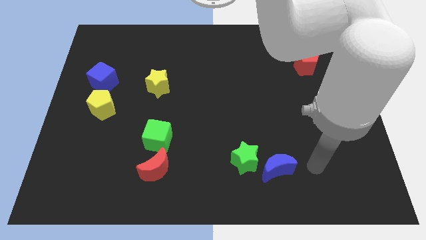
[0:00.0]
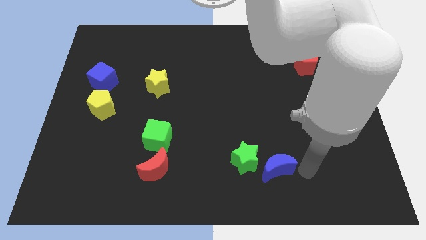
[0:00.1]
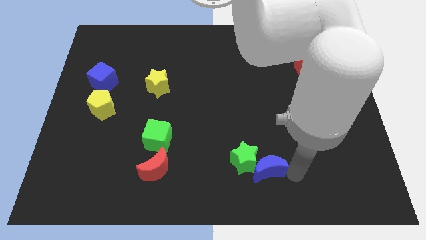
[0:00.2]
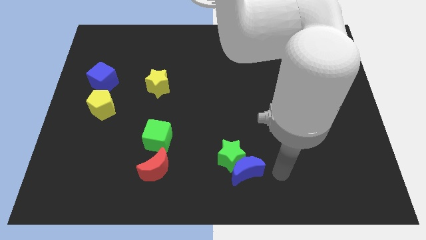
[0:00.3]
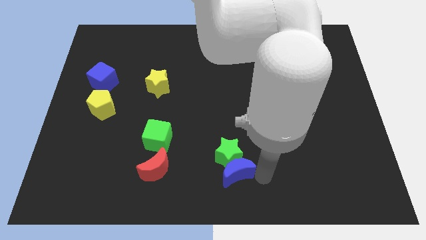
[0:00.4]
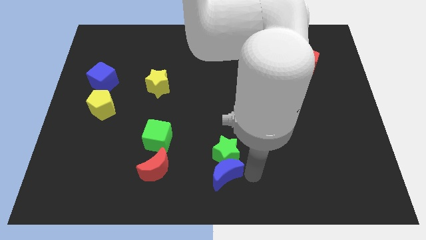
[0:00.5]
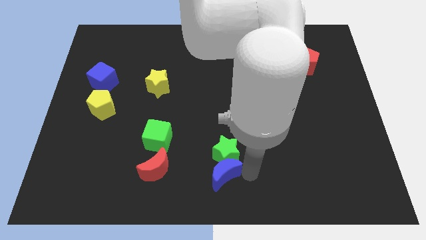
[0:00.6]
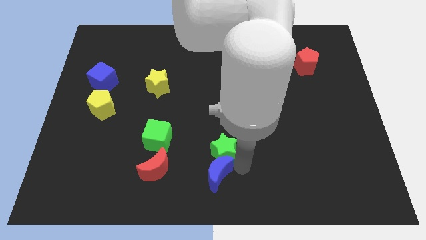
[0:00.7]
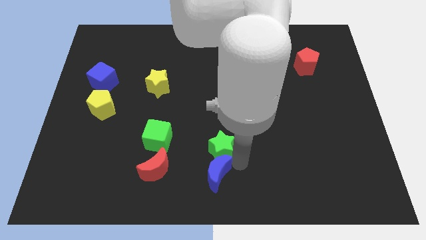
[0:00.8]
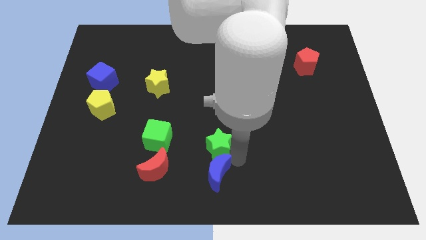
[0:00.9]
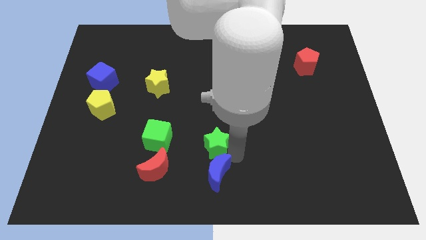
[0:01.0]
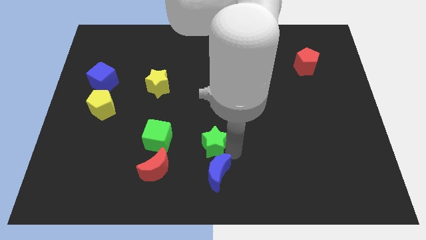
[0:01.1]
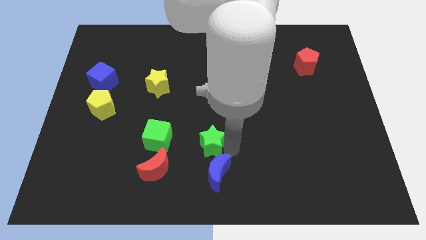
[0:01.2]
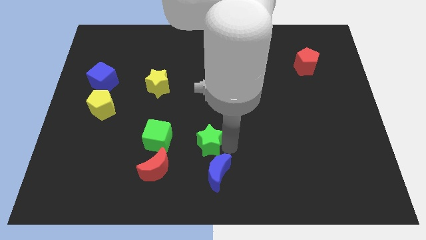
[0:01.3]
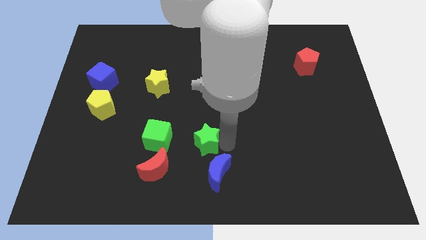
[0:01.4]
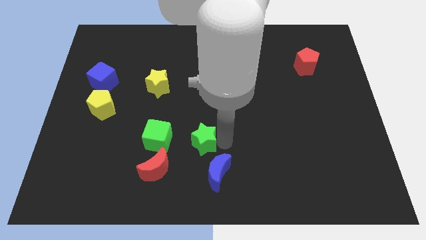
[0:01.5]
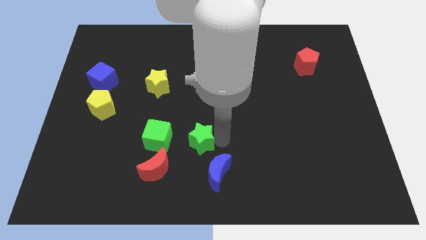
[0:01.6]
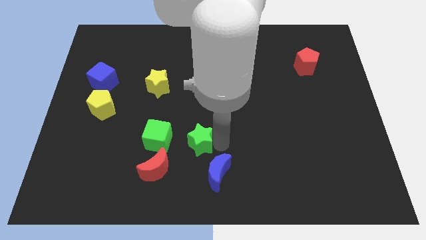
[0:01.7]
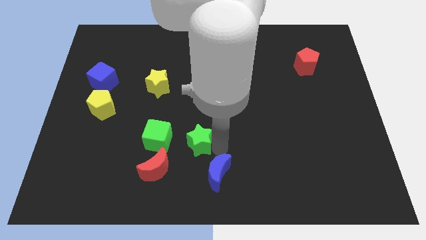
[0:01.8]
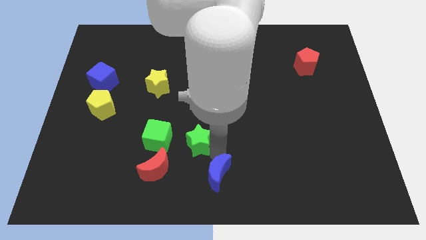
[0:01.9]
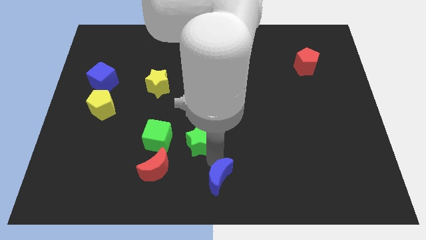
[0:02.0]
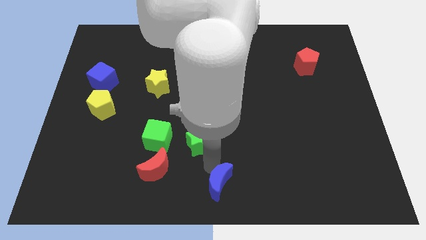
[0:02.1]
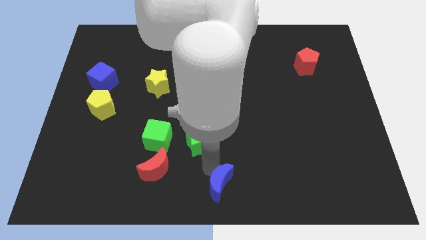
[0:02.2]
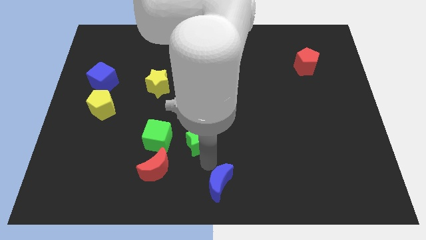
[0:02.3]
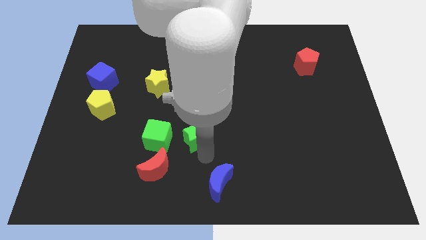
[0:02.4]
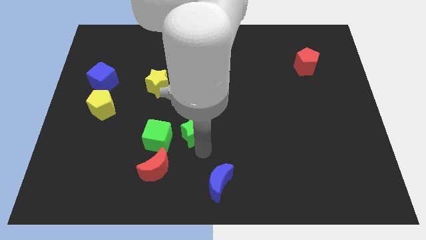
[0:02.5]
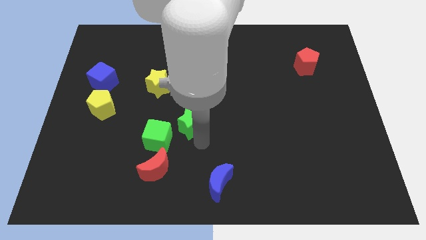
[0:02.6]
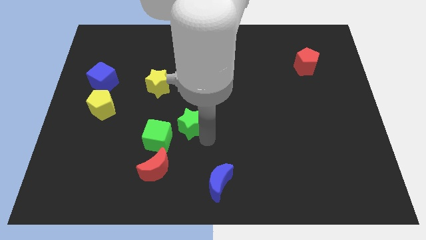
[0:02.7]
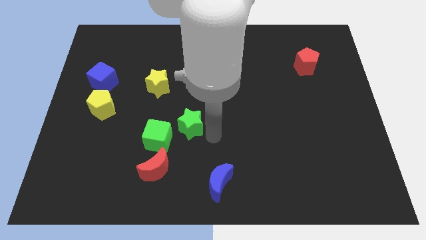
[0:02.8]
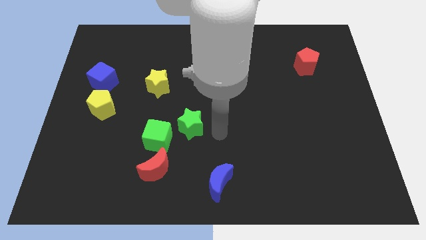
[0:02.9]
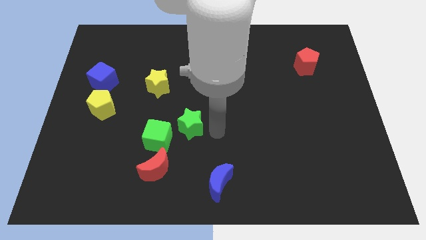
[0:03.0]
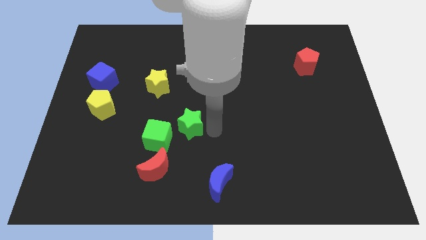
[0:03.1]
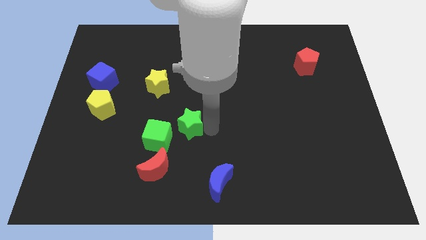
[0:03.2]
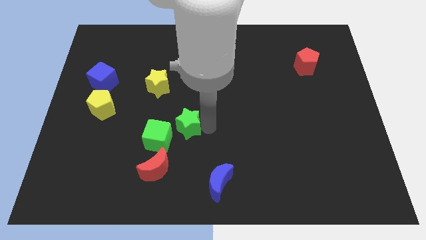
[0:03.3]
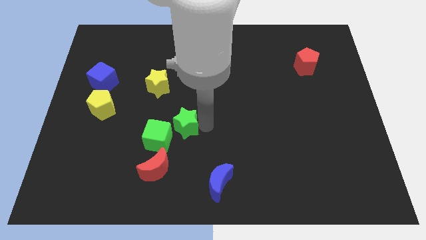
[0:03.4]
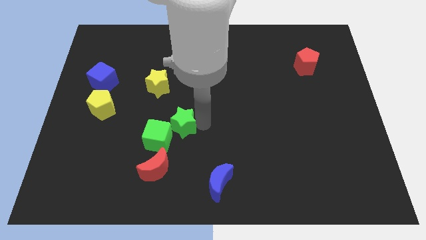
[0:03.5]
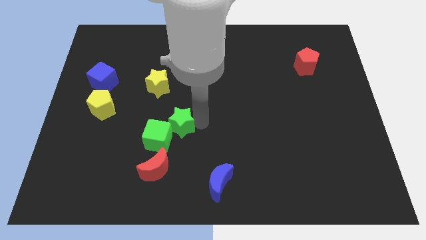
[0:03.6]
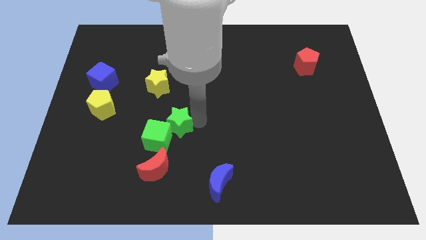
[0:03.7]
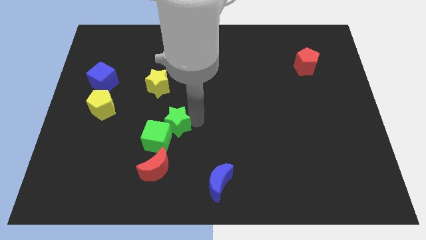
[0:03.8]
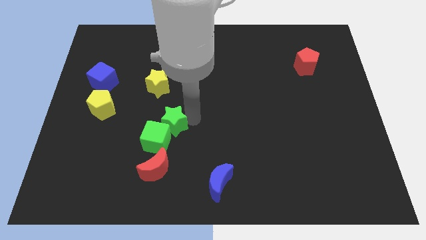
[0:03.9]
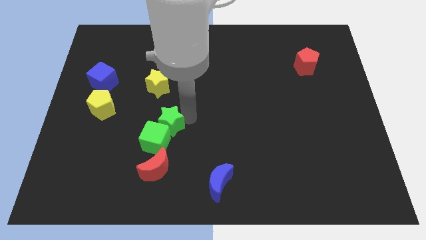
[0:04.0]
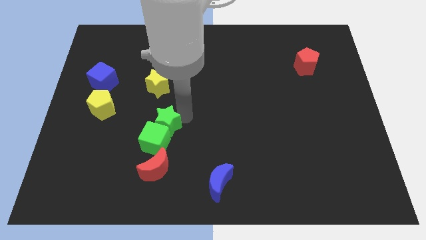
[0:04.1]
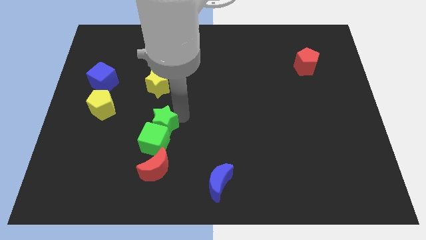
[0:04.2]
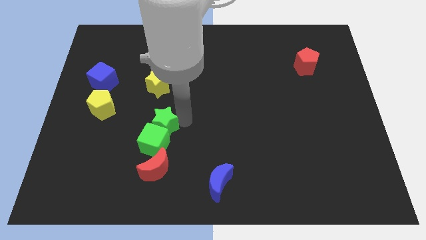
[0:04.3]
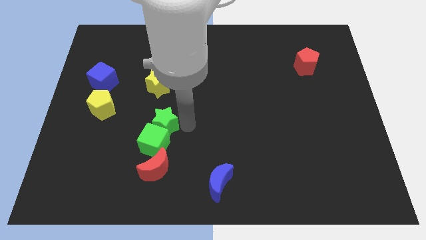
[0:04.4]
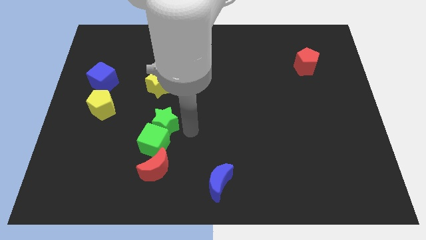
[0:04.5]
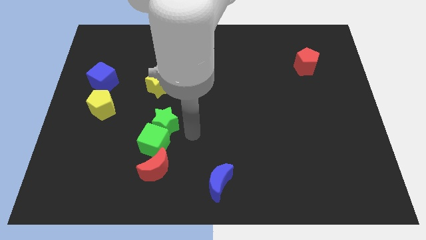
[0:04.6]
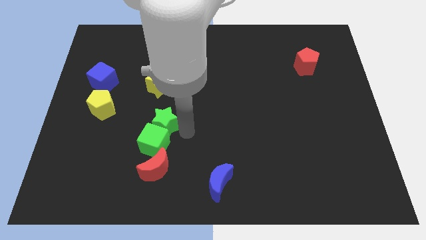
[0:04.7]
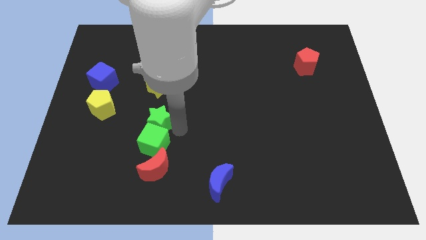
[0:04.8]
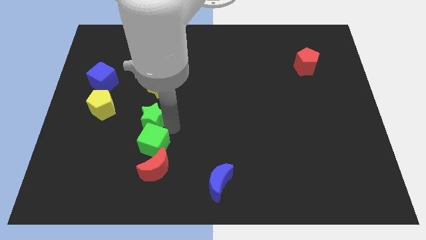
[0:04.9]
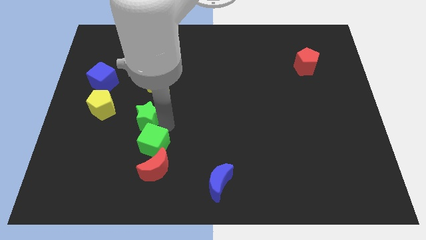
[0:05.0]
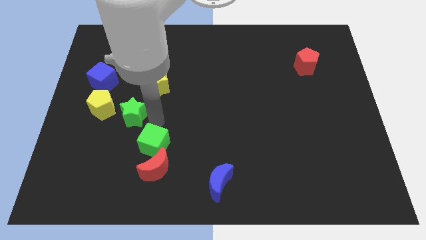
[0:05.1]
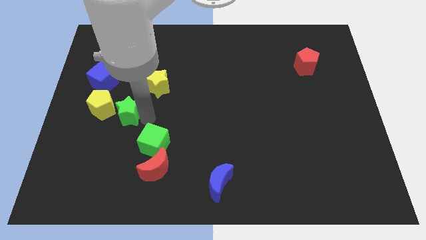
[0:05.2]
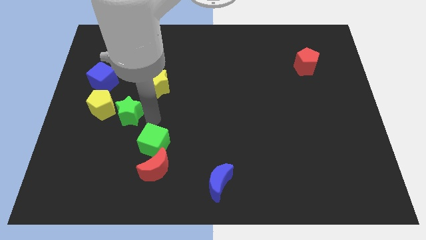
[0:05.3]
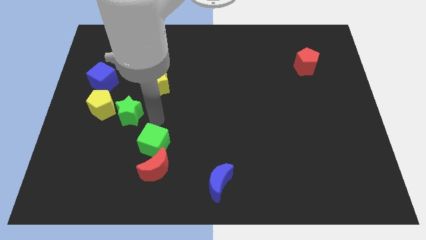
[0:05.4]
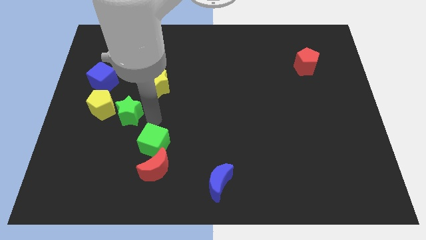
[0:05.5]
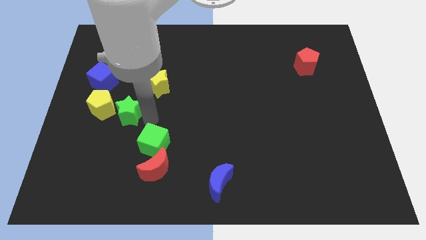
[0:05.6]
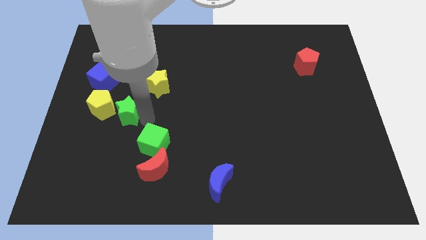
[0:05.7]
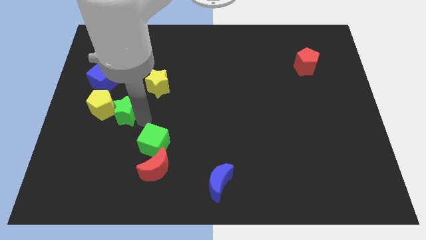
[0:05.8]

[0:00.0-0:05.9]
put the green star close to the yellow pentagon

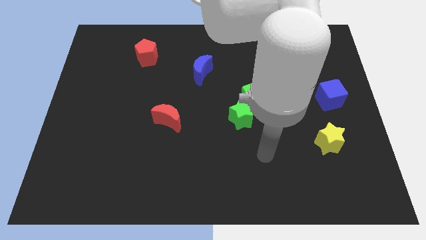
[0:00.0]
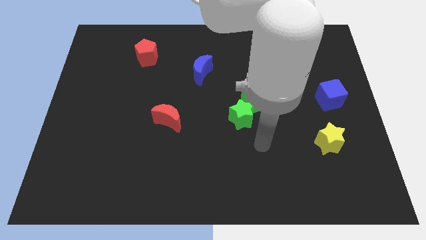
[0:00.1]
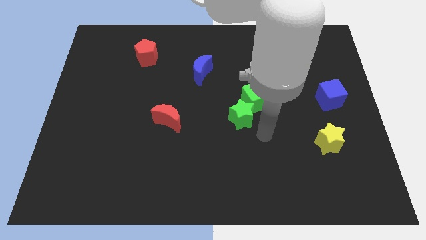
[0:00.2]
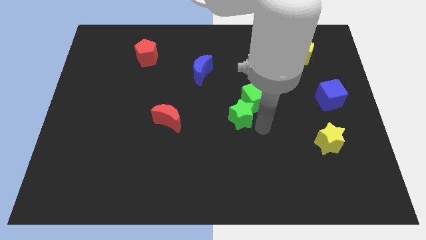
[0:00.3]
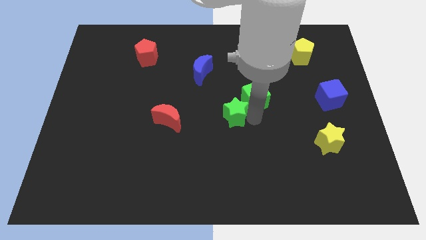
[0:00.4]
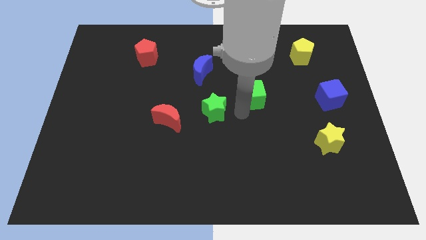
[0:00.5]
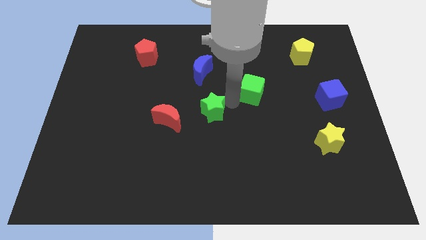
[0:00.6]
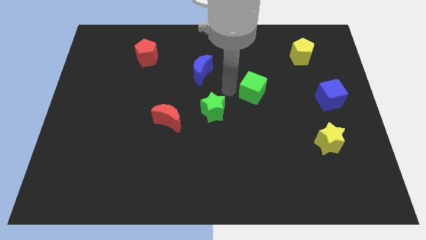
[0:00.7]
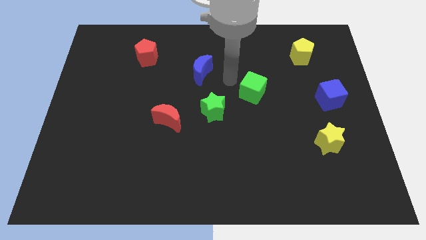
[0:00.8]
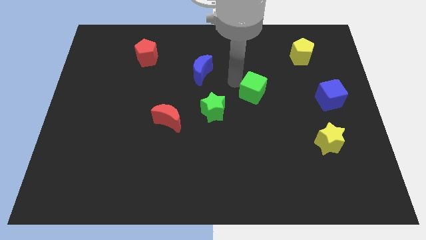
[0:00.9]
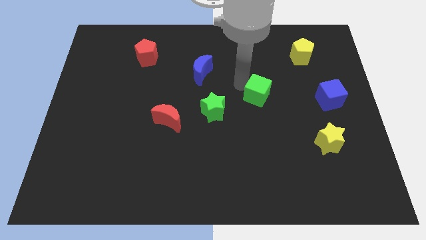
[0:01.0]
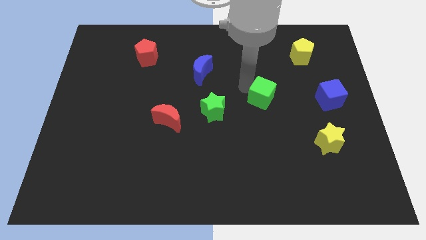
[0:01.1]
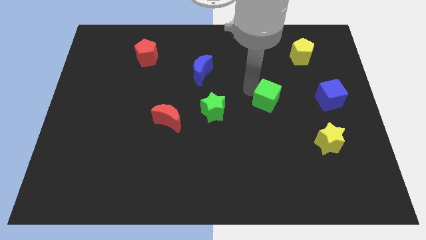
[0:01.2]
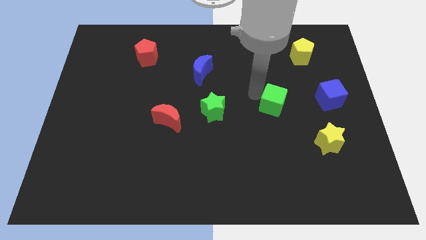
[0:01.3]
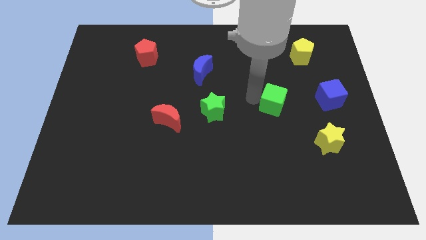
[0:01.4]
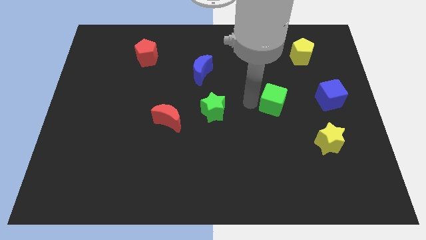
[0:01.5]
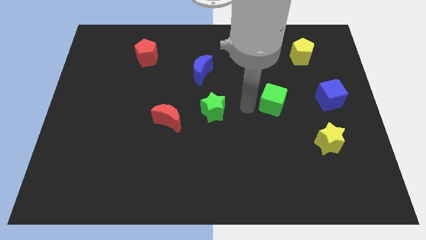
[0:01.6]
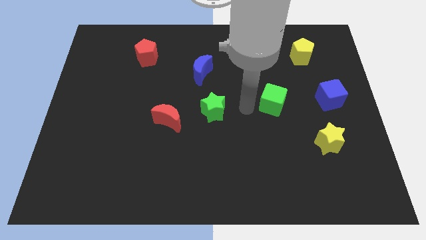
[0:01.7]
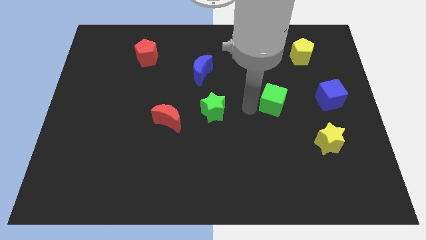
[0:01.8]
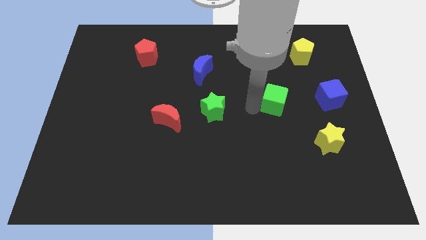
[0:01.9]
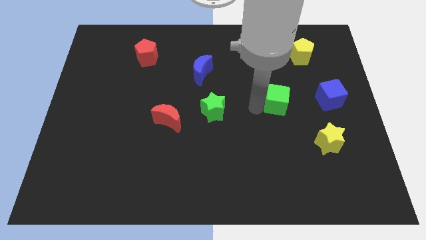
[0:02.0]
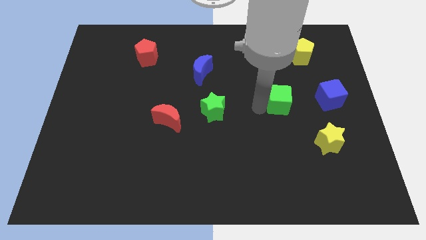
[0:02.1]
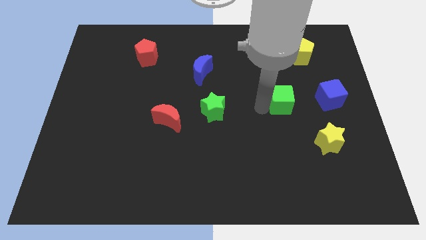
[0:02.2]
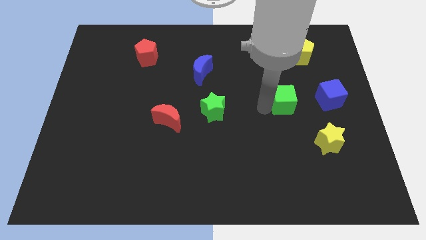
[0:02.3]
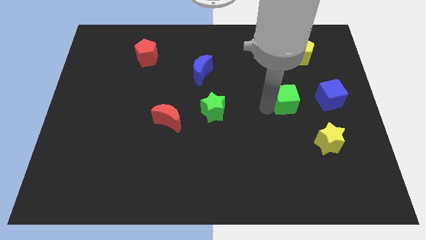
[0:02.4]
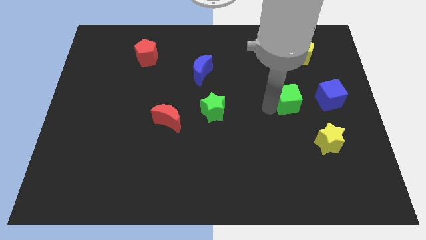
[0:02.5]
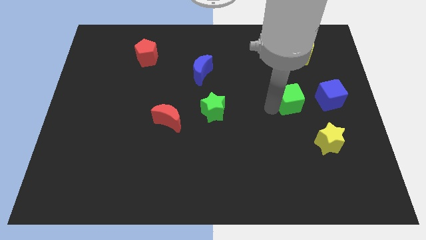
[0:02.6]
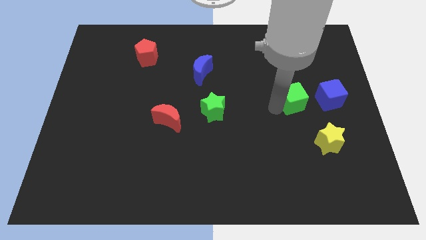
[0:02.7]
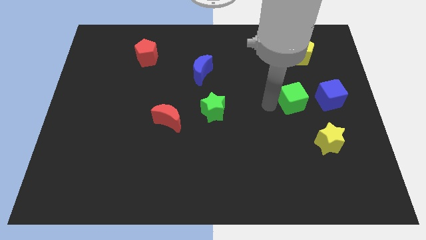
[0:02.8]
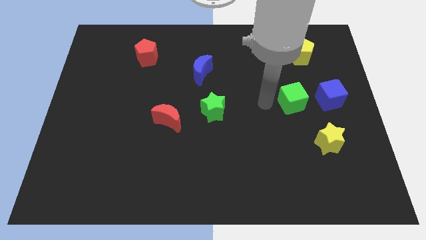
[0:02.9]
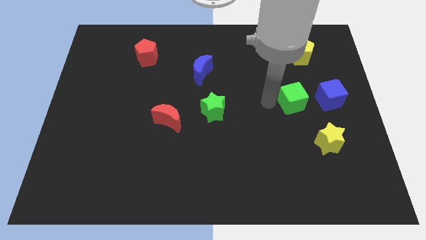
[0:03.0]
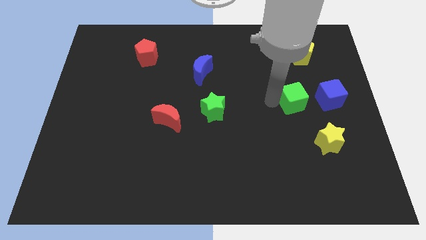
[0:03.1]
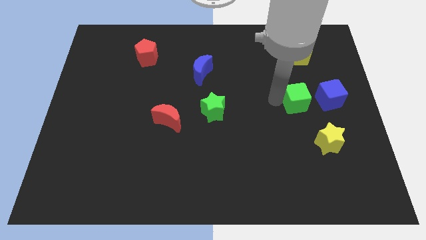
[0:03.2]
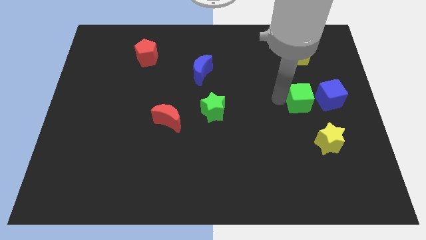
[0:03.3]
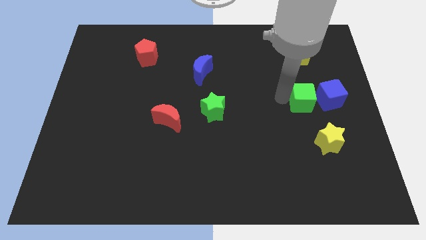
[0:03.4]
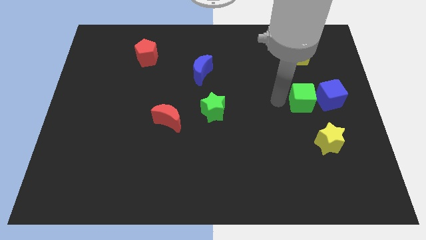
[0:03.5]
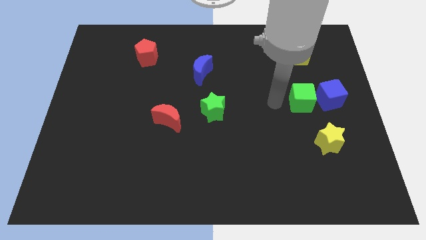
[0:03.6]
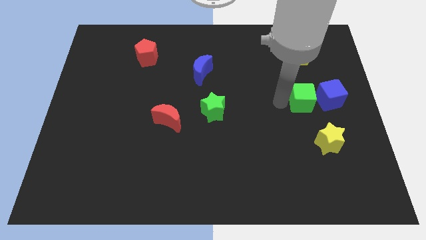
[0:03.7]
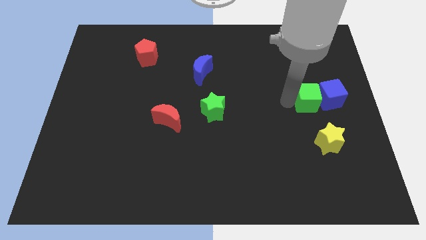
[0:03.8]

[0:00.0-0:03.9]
slide the green cube next to the blue cube
